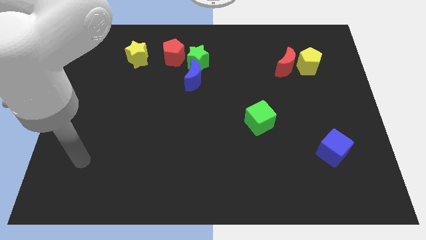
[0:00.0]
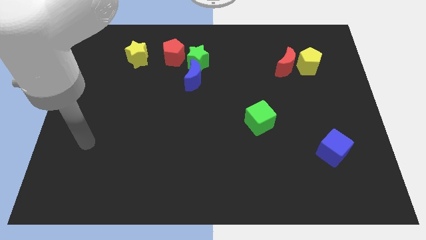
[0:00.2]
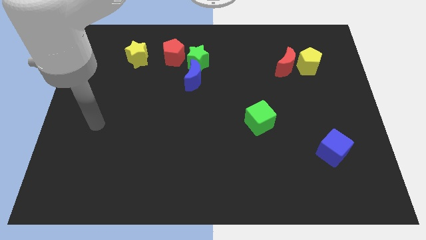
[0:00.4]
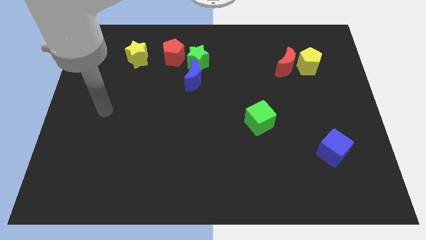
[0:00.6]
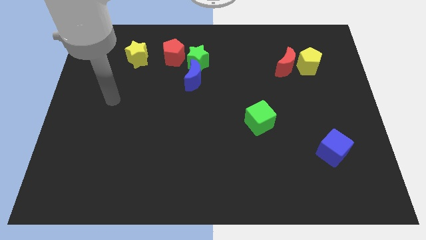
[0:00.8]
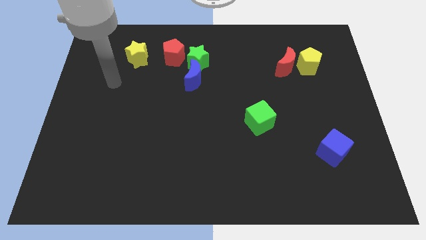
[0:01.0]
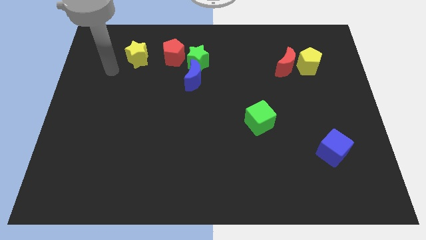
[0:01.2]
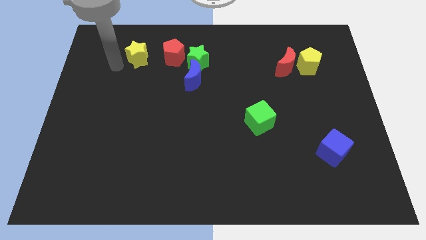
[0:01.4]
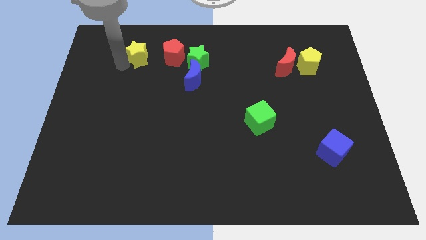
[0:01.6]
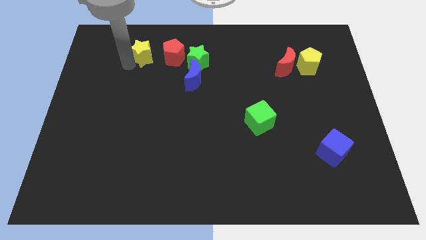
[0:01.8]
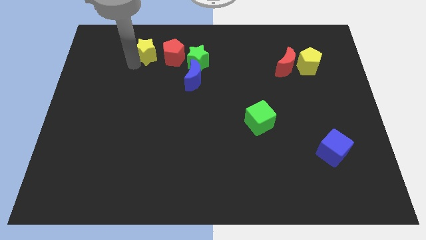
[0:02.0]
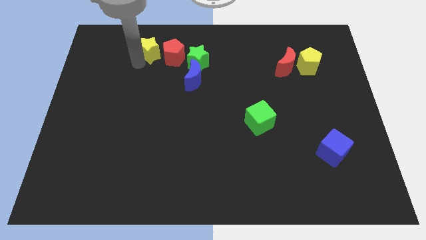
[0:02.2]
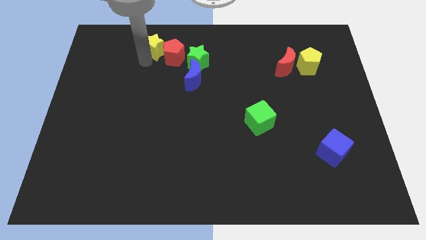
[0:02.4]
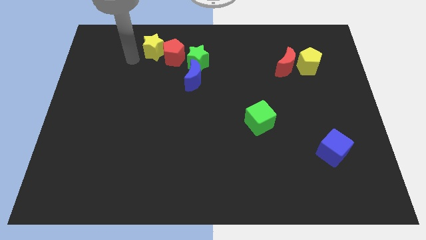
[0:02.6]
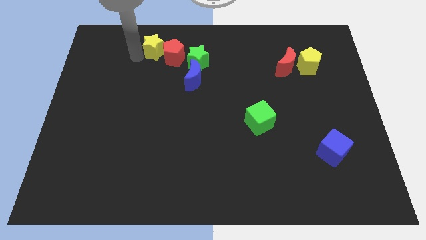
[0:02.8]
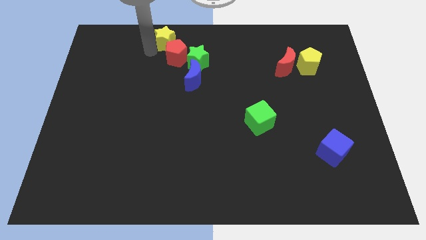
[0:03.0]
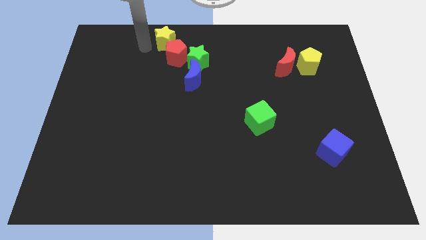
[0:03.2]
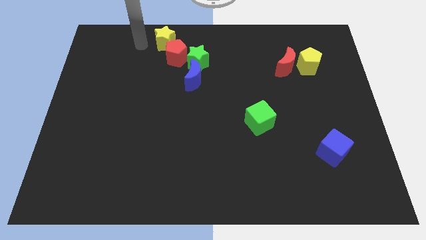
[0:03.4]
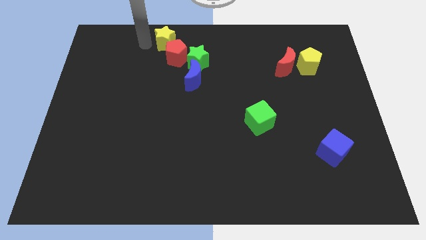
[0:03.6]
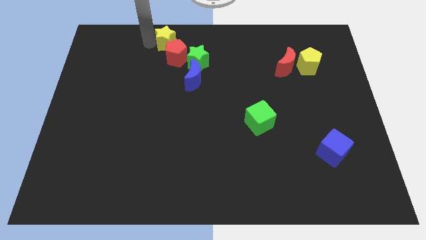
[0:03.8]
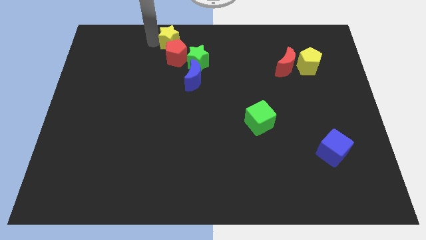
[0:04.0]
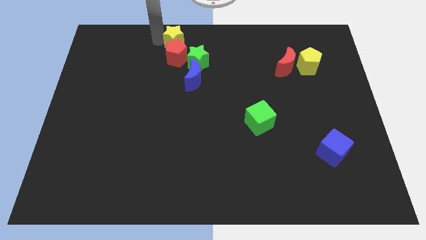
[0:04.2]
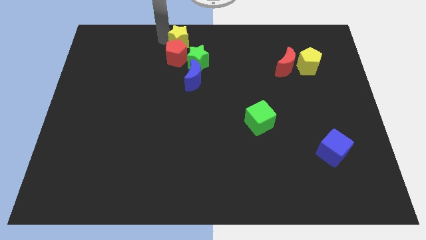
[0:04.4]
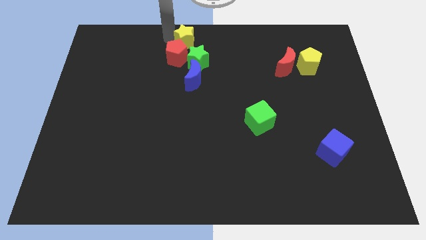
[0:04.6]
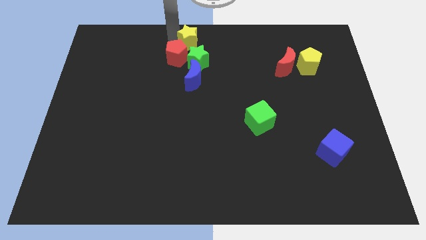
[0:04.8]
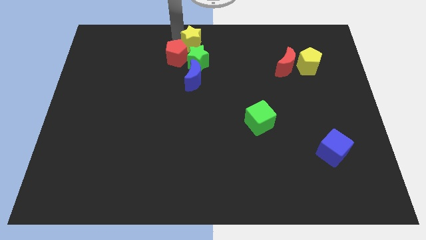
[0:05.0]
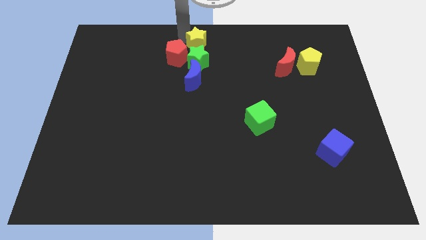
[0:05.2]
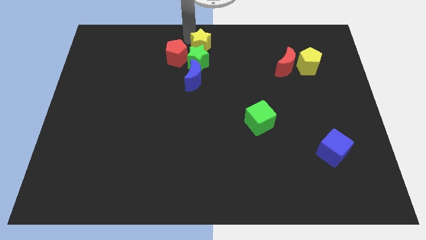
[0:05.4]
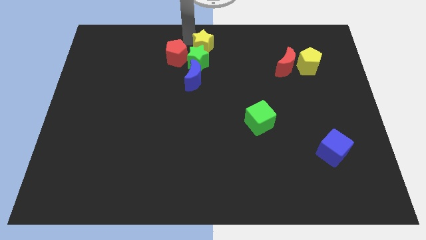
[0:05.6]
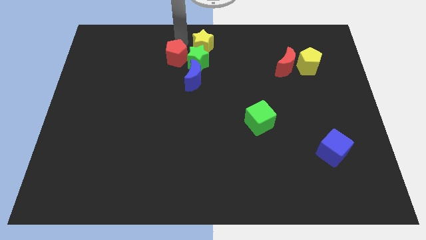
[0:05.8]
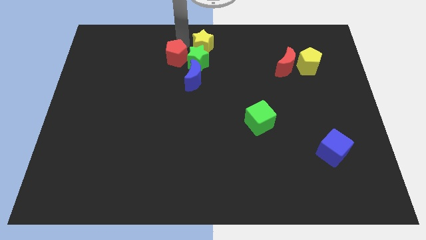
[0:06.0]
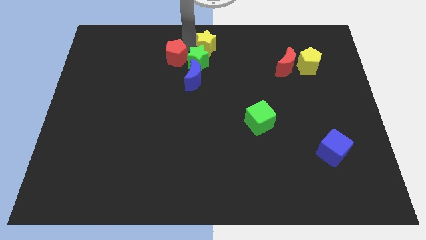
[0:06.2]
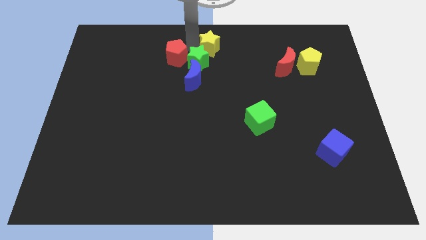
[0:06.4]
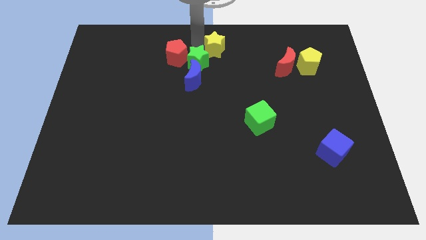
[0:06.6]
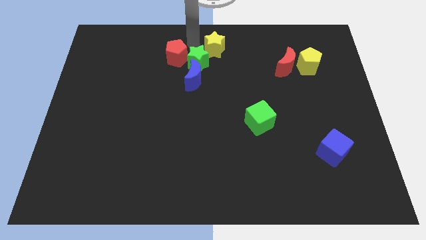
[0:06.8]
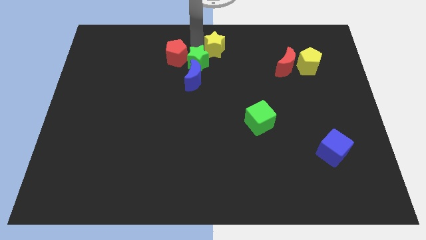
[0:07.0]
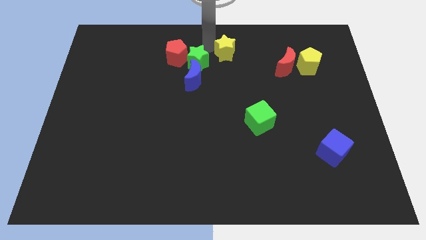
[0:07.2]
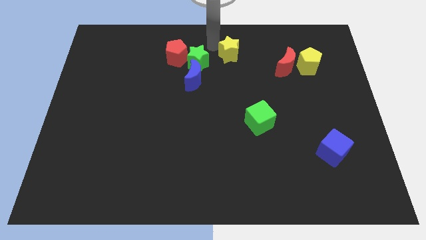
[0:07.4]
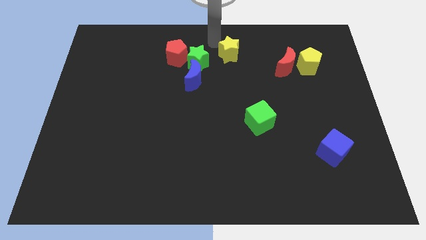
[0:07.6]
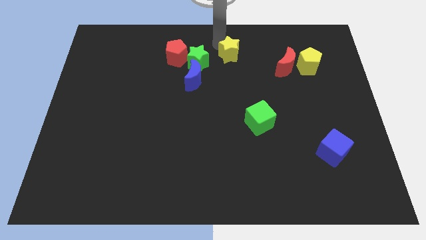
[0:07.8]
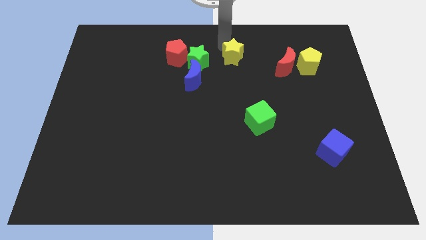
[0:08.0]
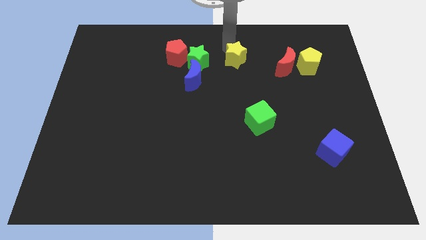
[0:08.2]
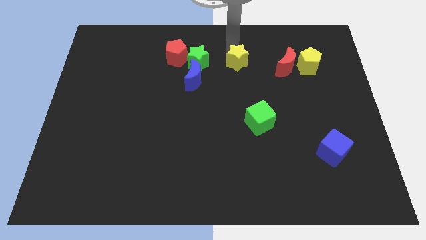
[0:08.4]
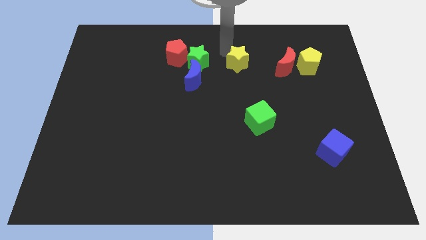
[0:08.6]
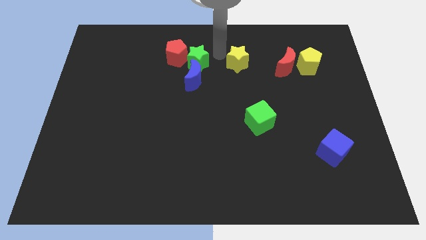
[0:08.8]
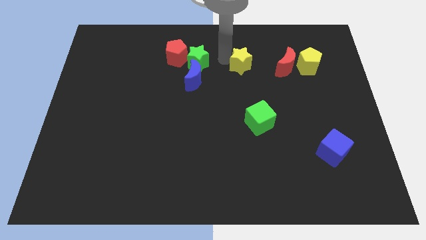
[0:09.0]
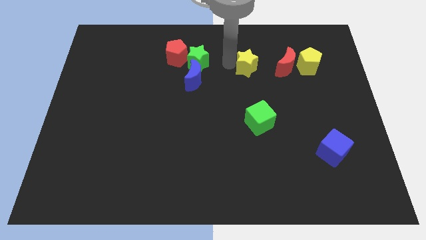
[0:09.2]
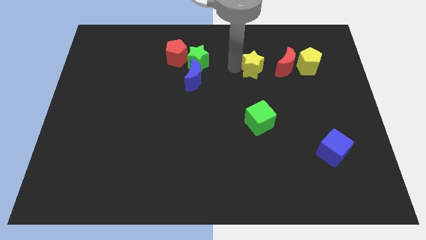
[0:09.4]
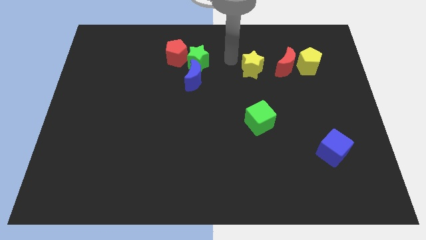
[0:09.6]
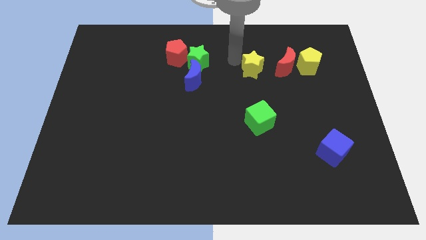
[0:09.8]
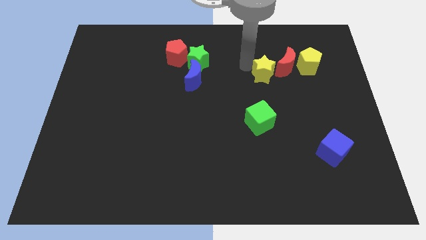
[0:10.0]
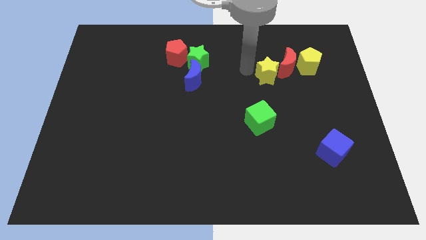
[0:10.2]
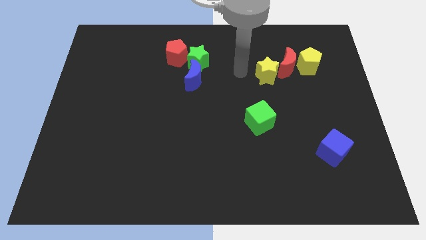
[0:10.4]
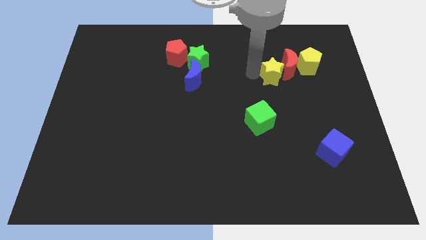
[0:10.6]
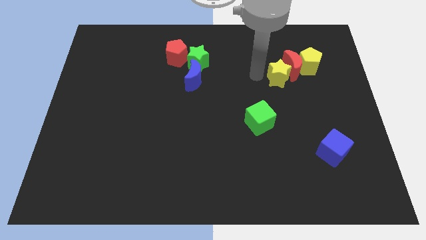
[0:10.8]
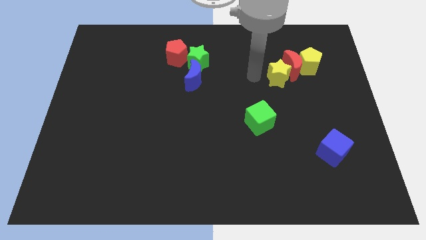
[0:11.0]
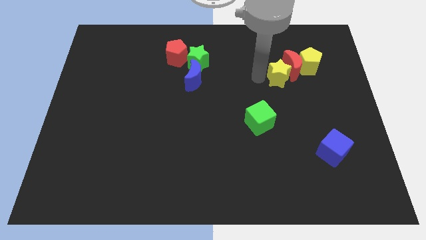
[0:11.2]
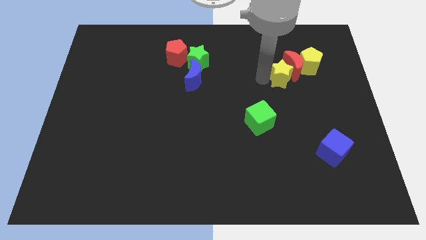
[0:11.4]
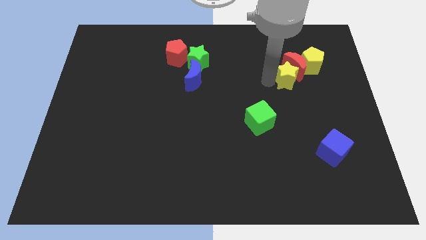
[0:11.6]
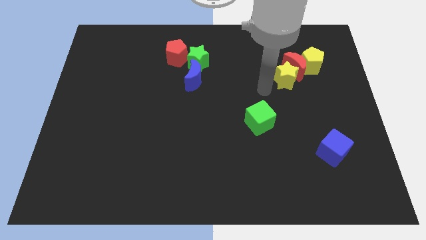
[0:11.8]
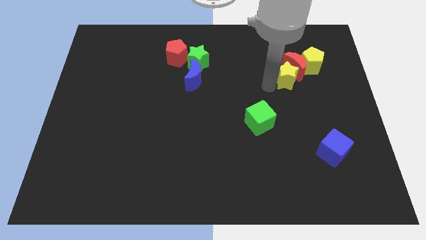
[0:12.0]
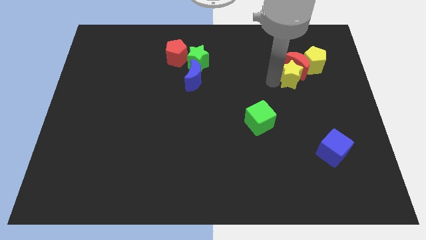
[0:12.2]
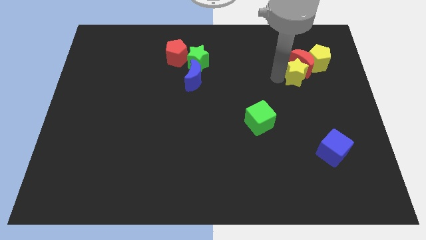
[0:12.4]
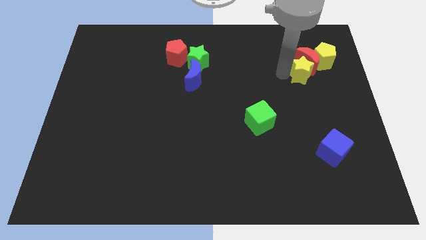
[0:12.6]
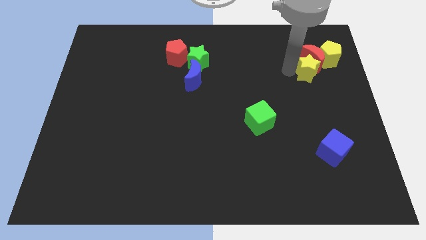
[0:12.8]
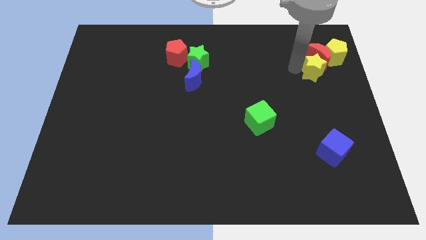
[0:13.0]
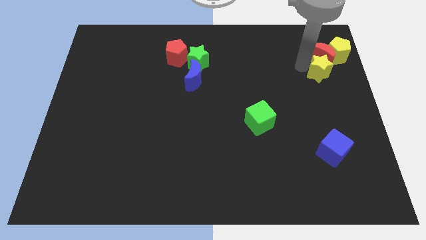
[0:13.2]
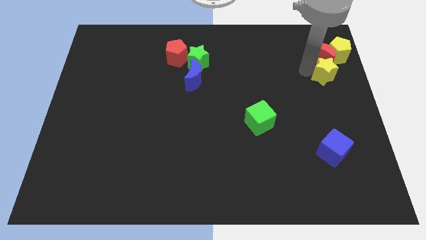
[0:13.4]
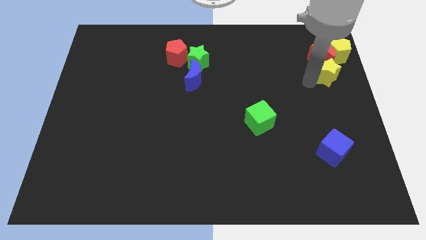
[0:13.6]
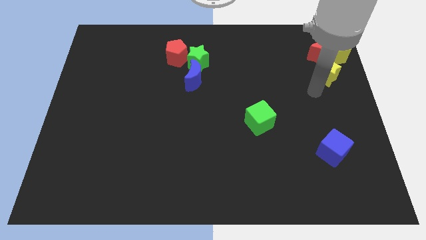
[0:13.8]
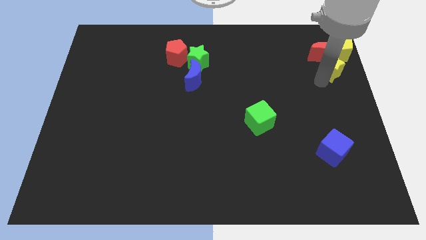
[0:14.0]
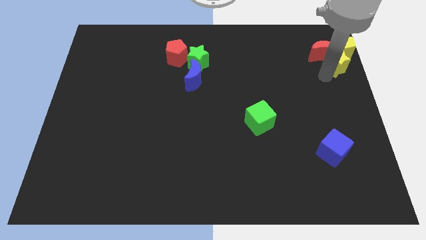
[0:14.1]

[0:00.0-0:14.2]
move the yellow star towards the yellow pentagon
